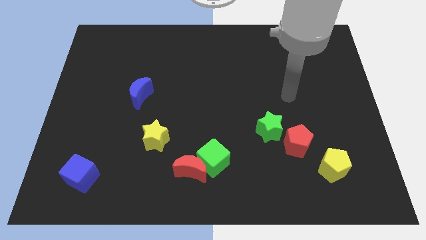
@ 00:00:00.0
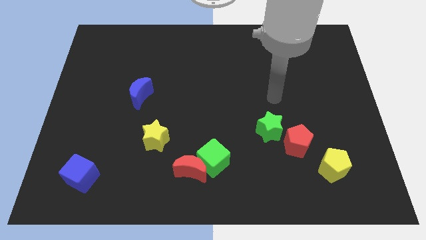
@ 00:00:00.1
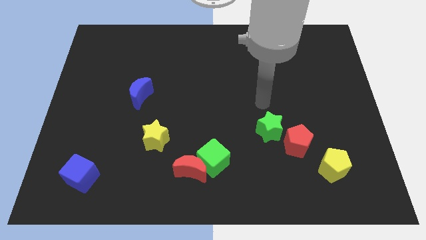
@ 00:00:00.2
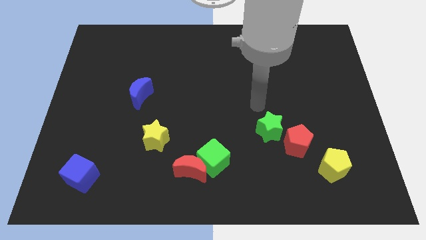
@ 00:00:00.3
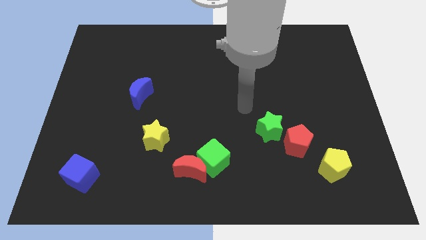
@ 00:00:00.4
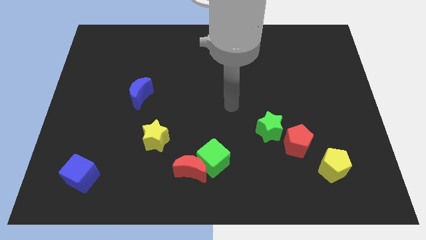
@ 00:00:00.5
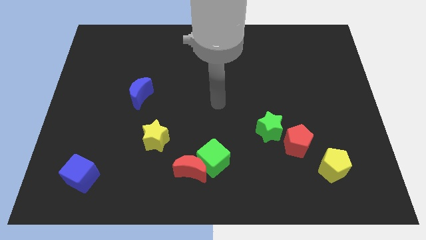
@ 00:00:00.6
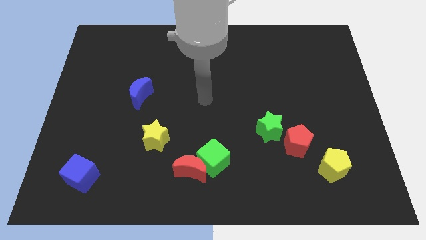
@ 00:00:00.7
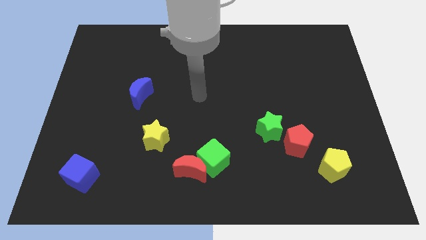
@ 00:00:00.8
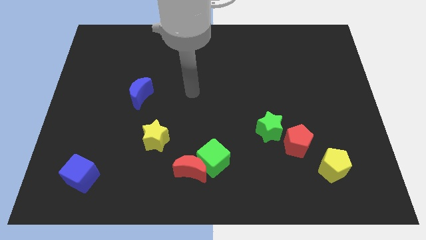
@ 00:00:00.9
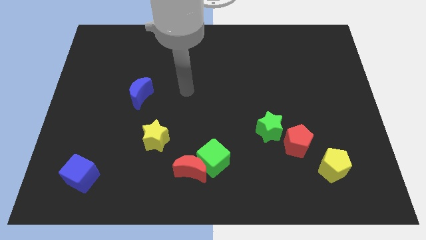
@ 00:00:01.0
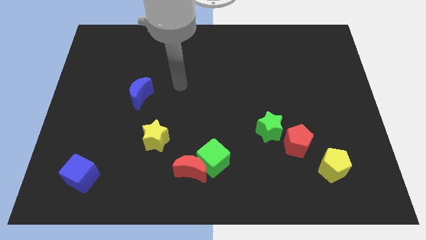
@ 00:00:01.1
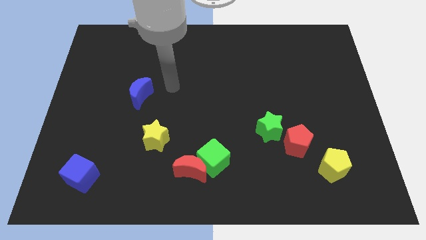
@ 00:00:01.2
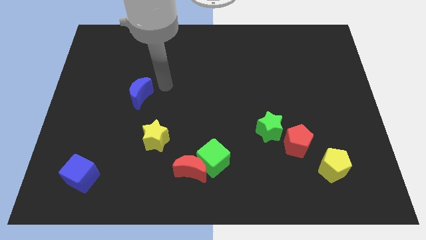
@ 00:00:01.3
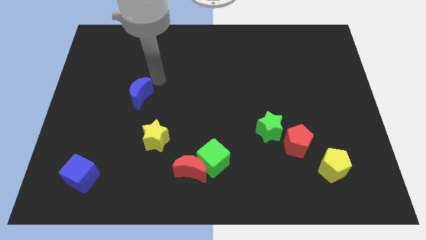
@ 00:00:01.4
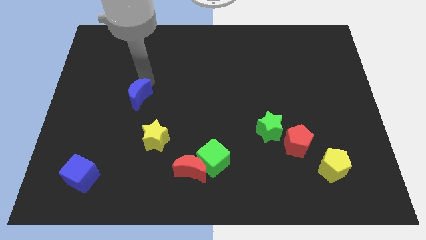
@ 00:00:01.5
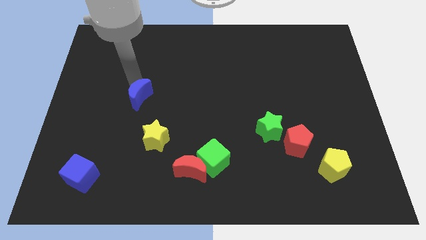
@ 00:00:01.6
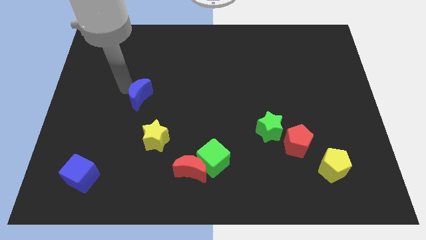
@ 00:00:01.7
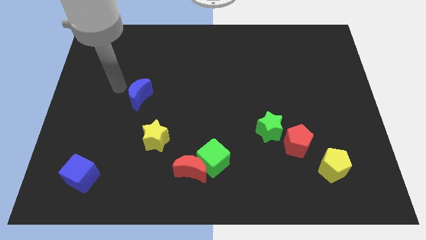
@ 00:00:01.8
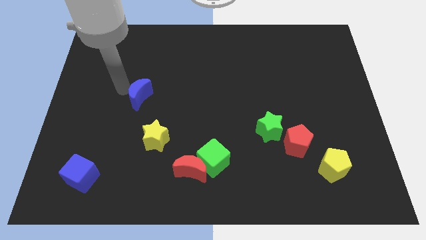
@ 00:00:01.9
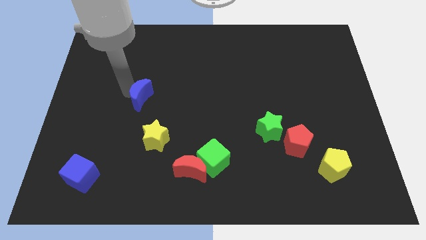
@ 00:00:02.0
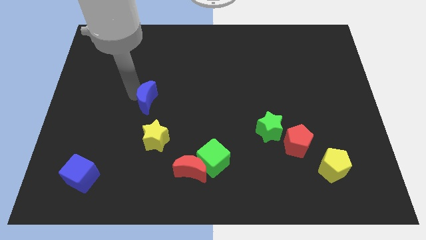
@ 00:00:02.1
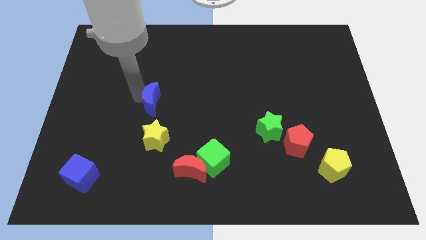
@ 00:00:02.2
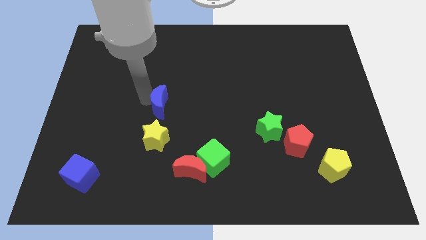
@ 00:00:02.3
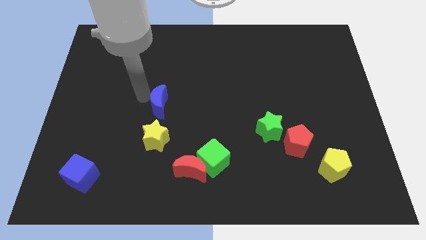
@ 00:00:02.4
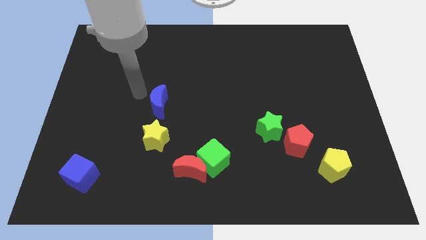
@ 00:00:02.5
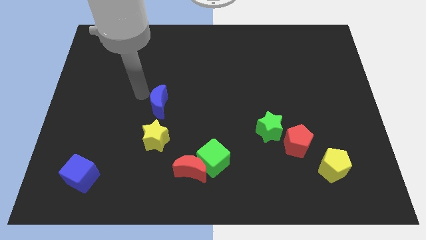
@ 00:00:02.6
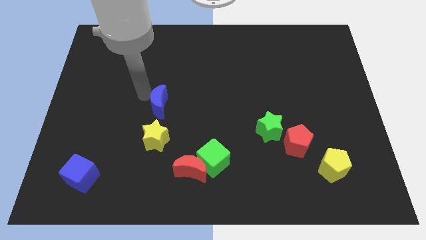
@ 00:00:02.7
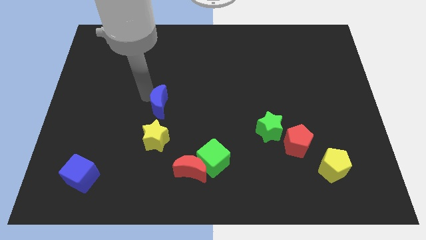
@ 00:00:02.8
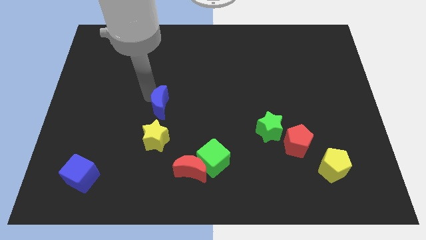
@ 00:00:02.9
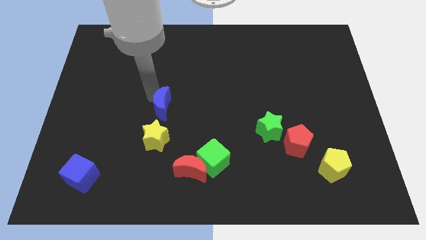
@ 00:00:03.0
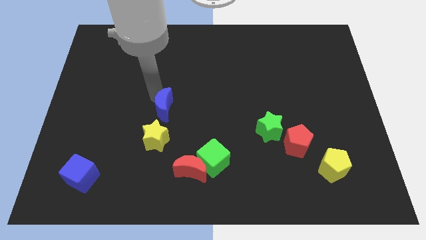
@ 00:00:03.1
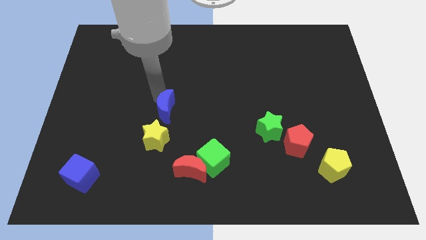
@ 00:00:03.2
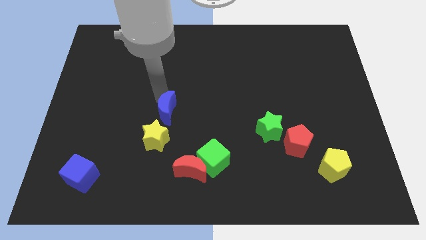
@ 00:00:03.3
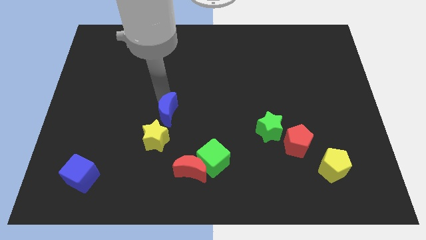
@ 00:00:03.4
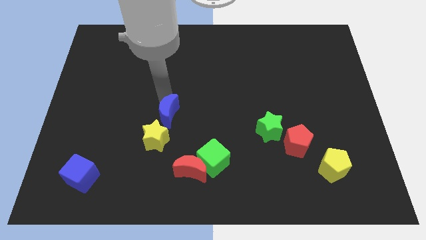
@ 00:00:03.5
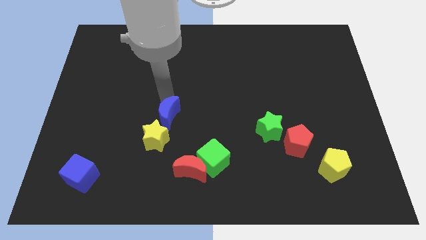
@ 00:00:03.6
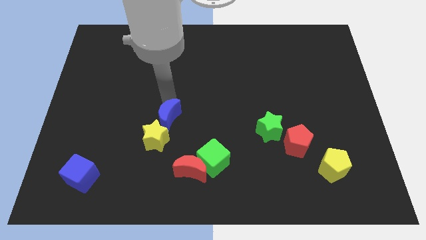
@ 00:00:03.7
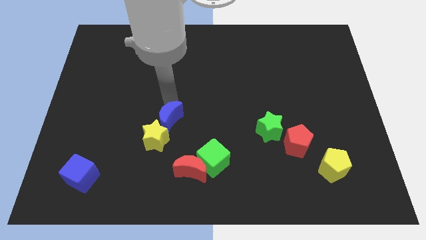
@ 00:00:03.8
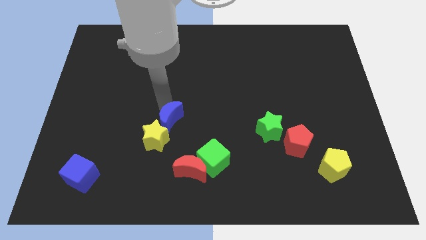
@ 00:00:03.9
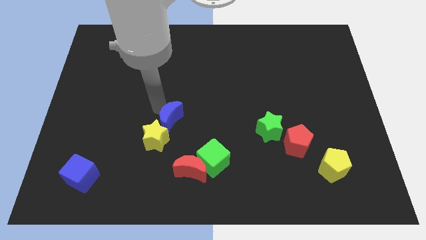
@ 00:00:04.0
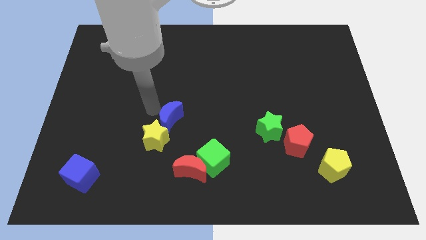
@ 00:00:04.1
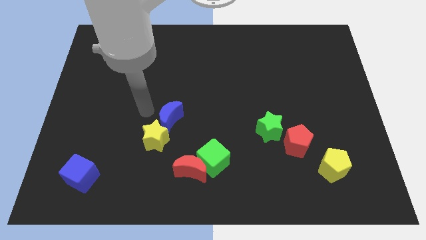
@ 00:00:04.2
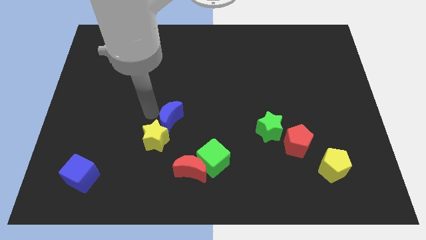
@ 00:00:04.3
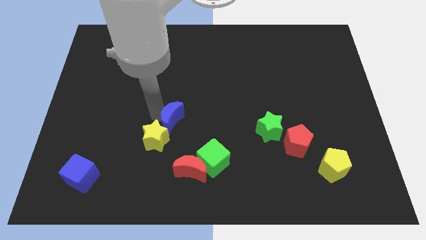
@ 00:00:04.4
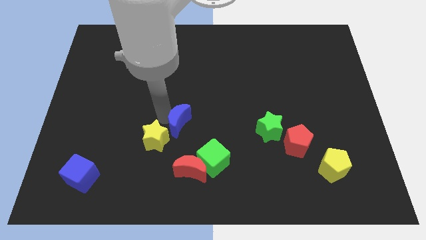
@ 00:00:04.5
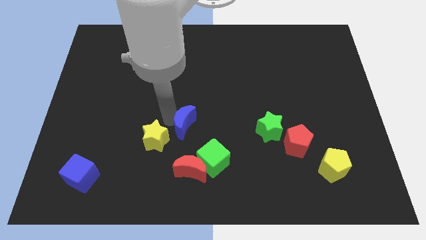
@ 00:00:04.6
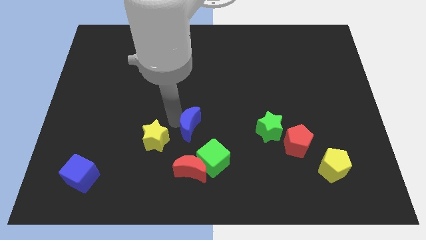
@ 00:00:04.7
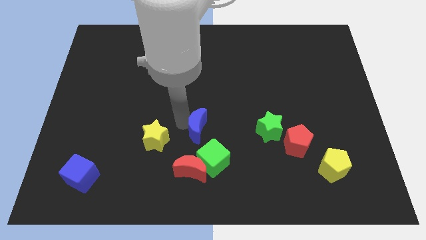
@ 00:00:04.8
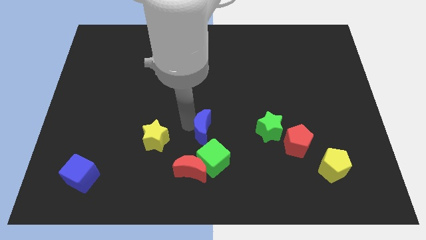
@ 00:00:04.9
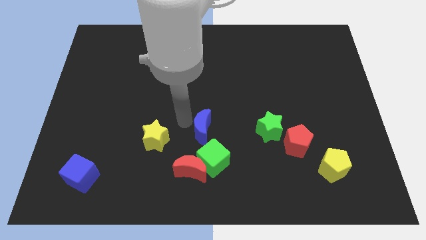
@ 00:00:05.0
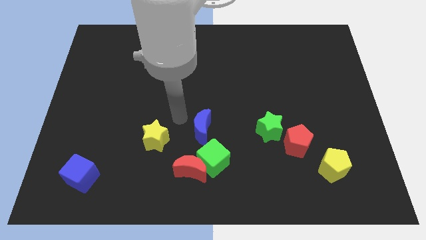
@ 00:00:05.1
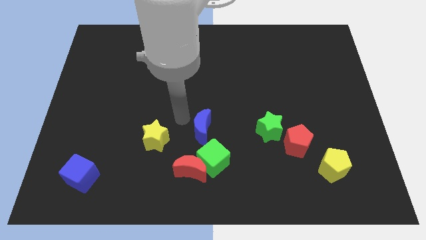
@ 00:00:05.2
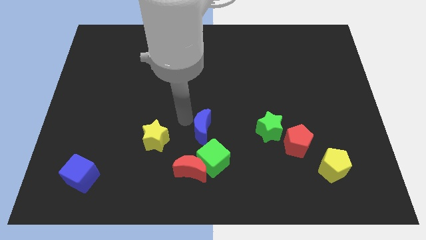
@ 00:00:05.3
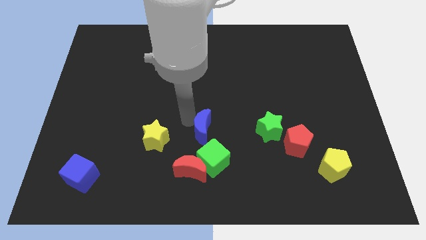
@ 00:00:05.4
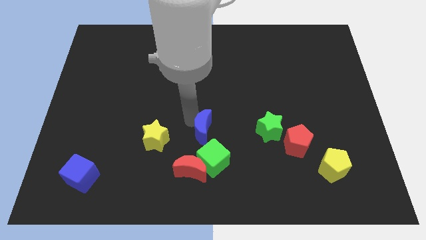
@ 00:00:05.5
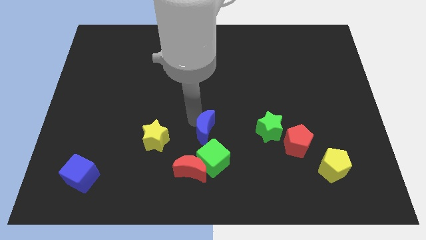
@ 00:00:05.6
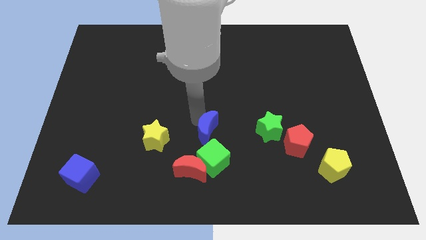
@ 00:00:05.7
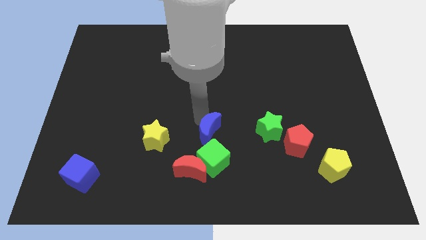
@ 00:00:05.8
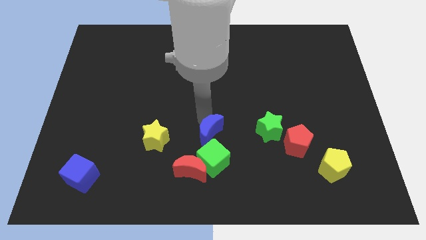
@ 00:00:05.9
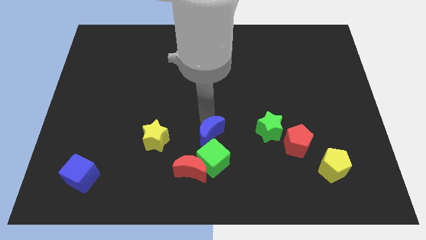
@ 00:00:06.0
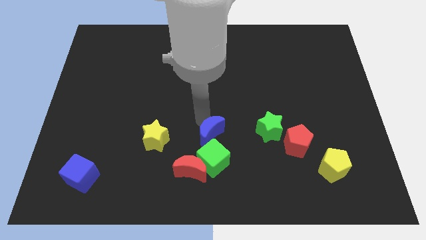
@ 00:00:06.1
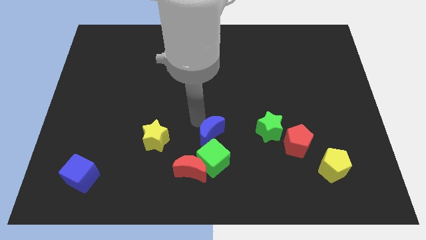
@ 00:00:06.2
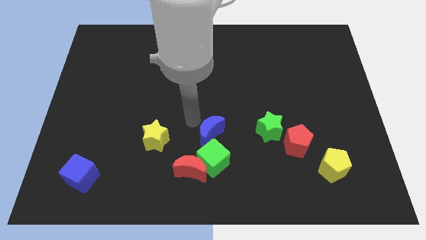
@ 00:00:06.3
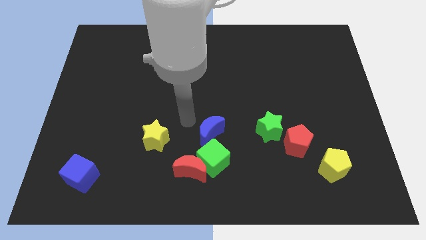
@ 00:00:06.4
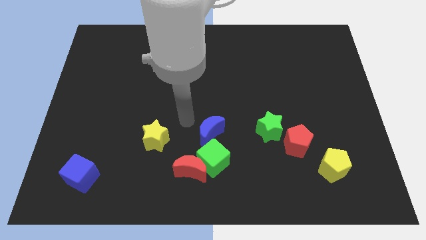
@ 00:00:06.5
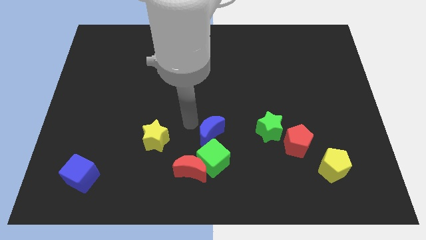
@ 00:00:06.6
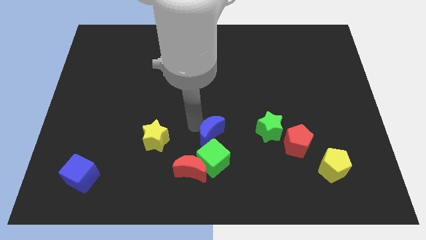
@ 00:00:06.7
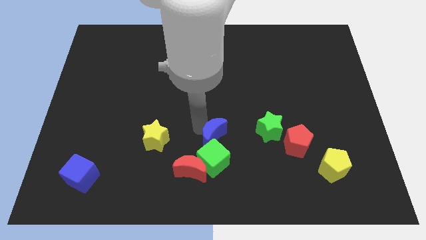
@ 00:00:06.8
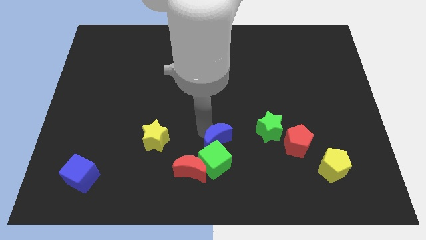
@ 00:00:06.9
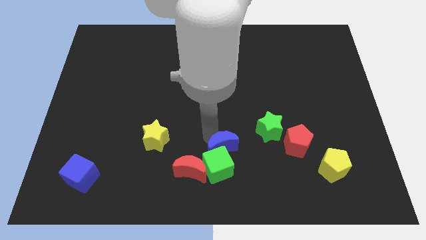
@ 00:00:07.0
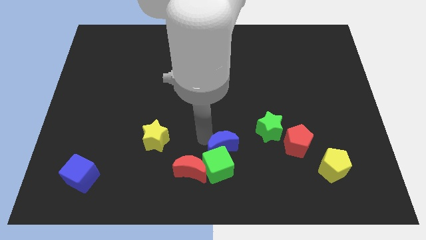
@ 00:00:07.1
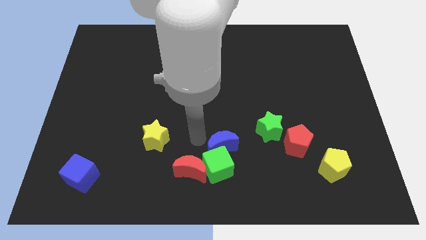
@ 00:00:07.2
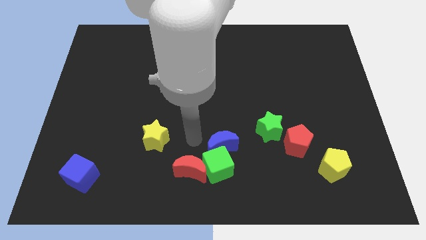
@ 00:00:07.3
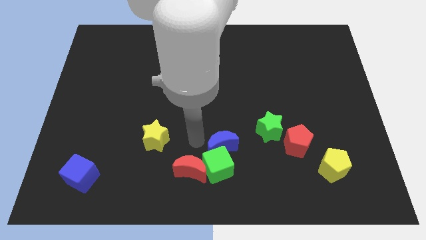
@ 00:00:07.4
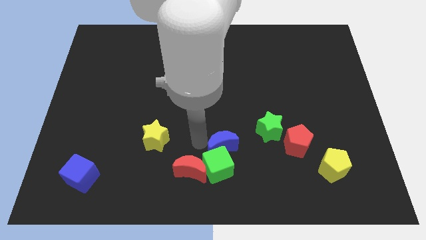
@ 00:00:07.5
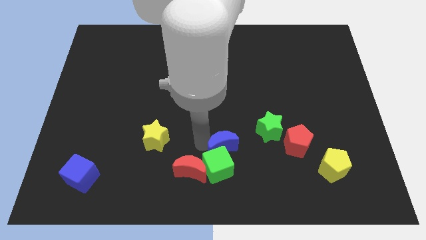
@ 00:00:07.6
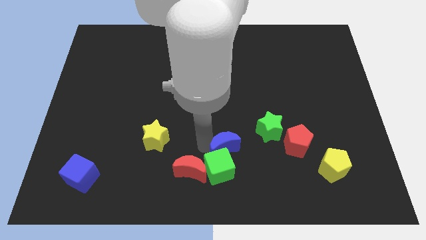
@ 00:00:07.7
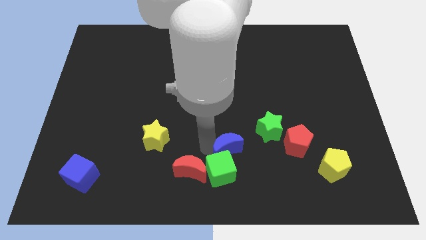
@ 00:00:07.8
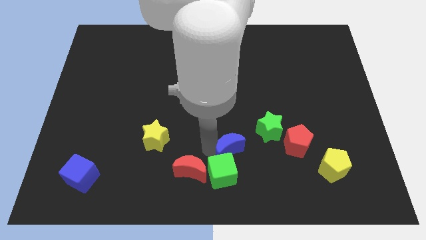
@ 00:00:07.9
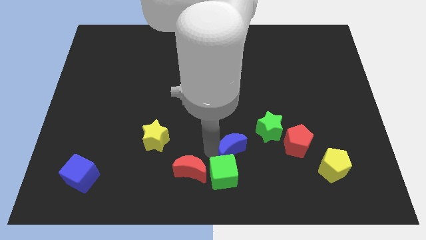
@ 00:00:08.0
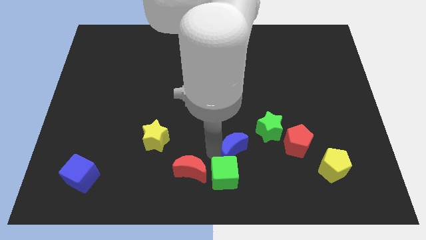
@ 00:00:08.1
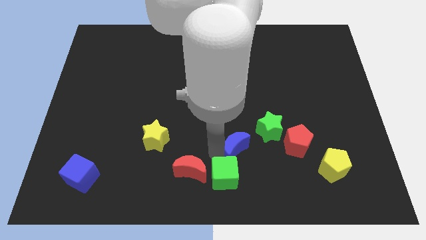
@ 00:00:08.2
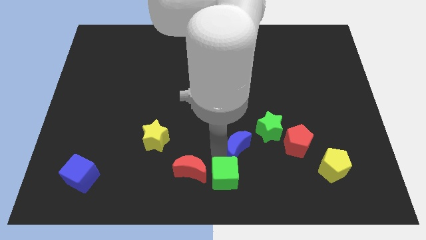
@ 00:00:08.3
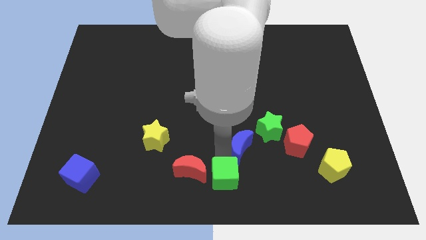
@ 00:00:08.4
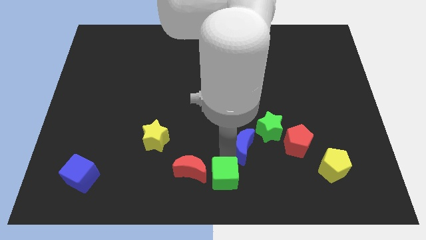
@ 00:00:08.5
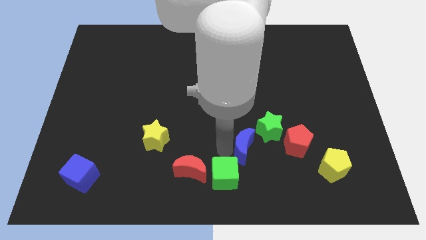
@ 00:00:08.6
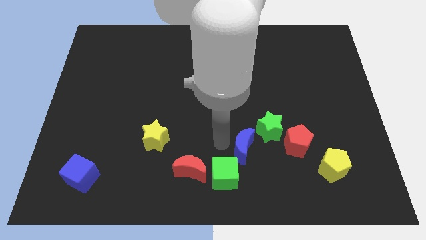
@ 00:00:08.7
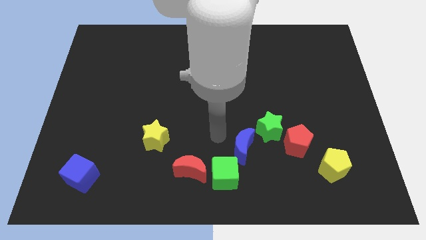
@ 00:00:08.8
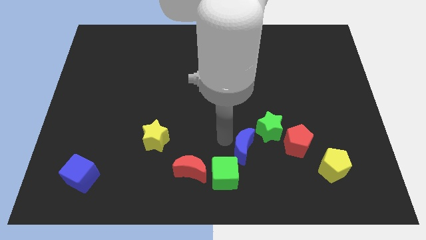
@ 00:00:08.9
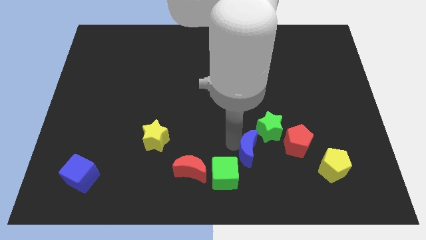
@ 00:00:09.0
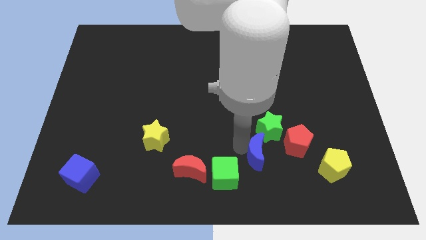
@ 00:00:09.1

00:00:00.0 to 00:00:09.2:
slide the blue moon to the bottom left of the red pentagon
